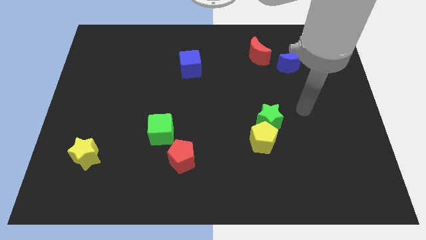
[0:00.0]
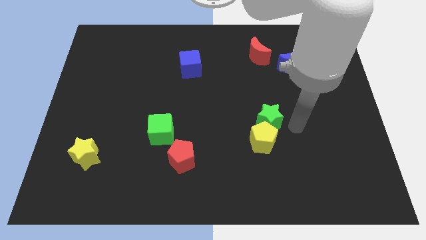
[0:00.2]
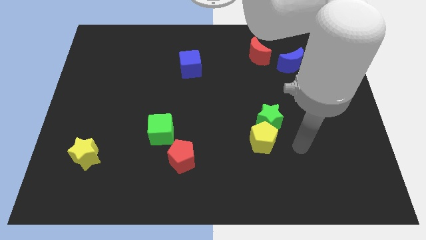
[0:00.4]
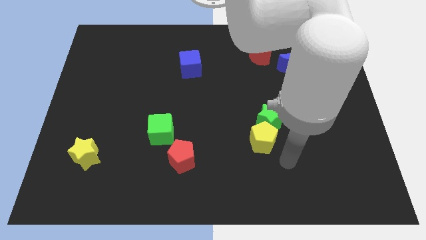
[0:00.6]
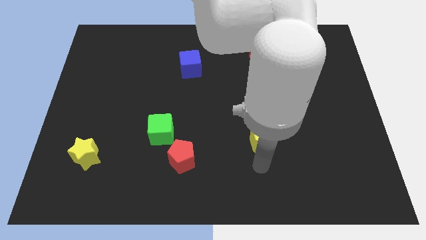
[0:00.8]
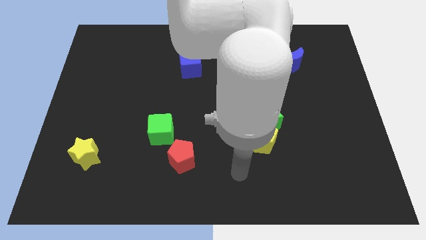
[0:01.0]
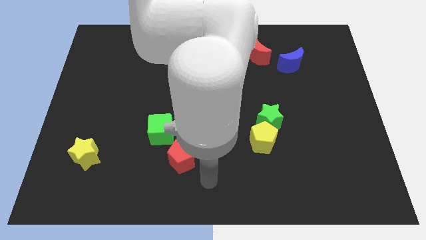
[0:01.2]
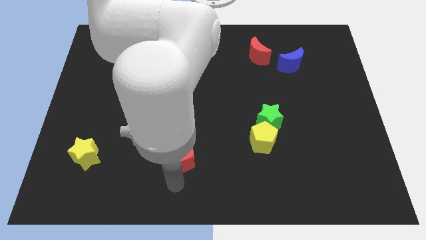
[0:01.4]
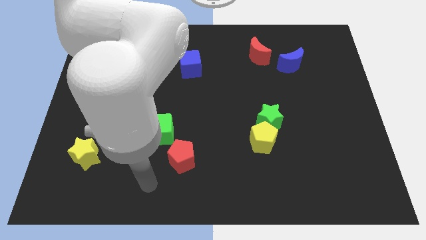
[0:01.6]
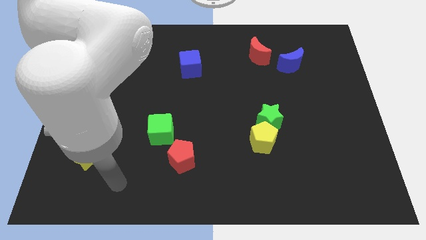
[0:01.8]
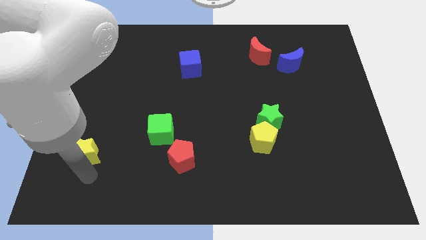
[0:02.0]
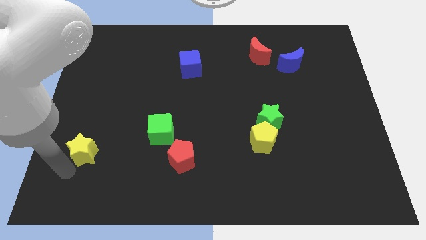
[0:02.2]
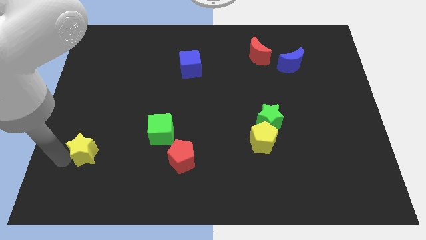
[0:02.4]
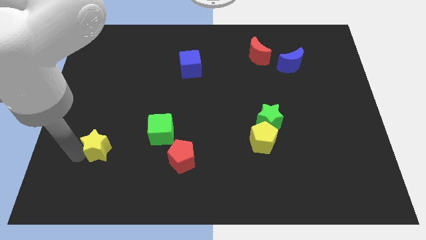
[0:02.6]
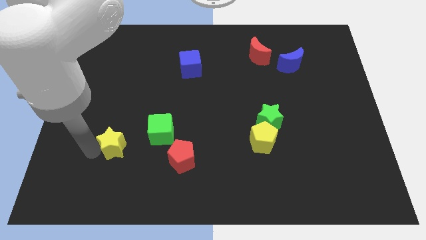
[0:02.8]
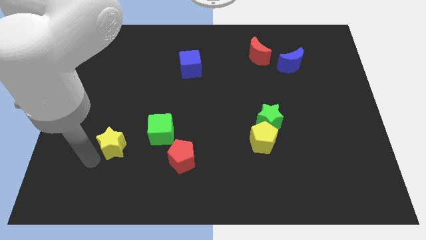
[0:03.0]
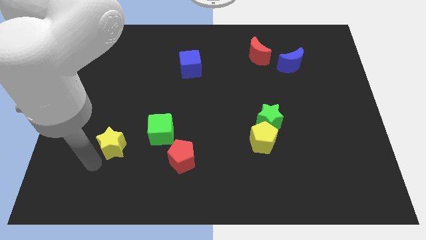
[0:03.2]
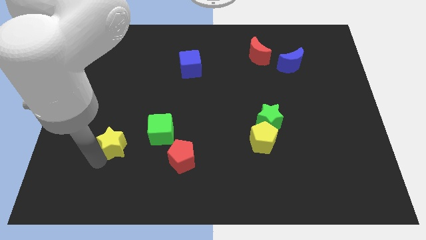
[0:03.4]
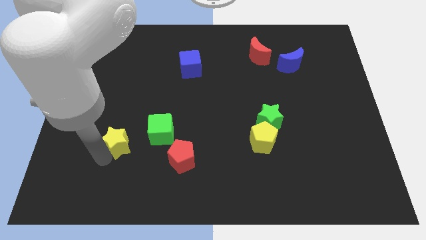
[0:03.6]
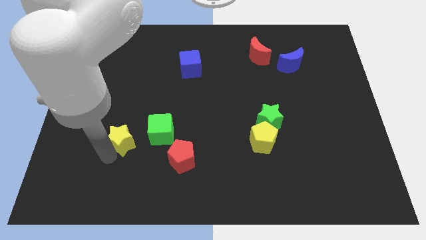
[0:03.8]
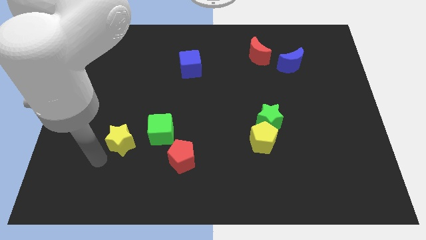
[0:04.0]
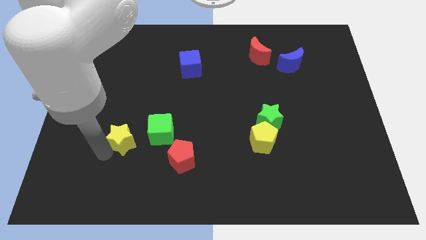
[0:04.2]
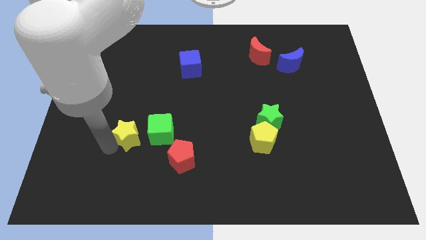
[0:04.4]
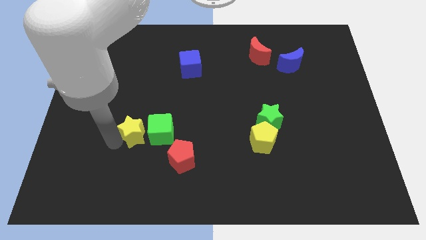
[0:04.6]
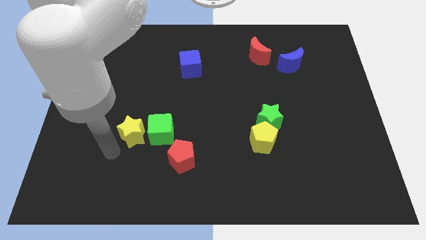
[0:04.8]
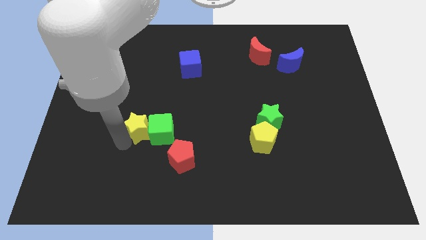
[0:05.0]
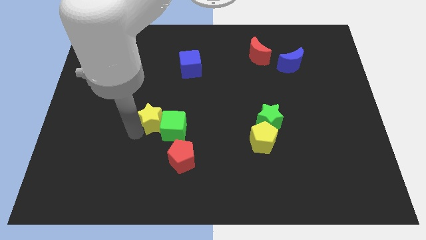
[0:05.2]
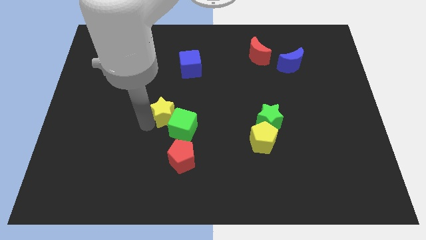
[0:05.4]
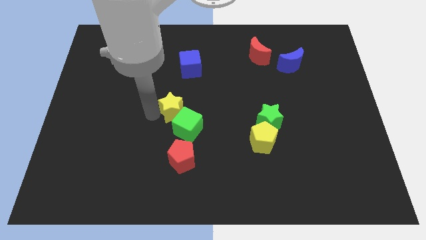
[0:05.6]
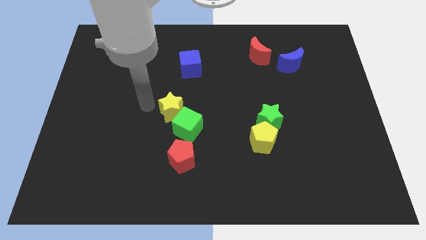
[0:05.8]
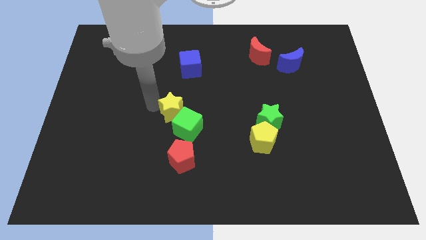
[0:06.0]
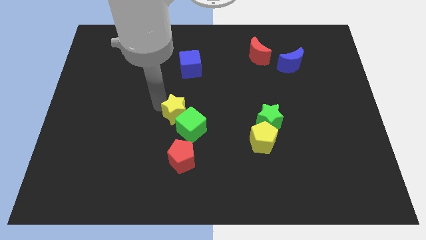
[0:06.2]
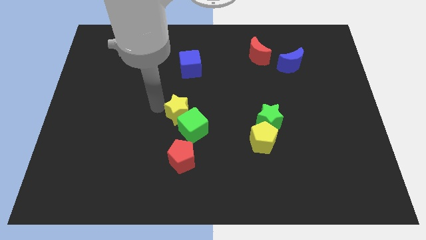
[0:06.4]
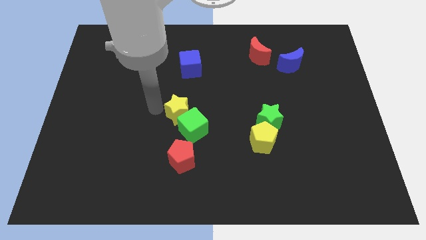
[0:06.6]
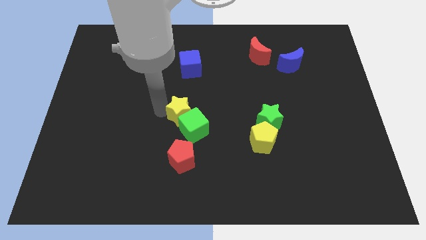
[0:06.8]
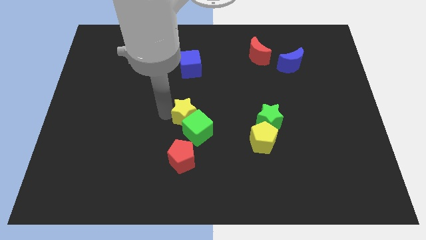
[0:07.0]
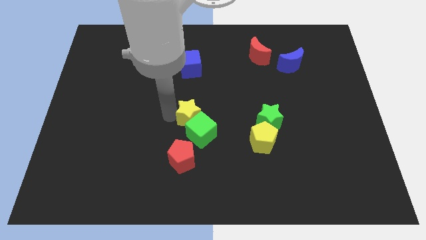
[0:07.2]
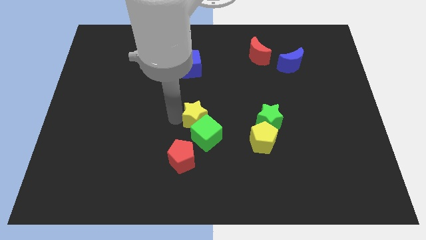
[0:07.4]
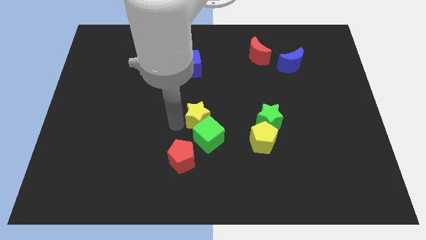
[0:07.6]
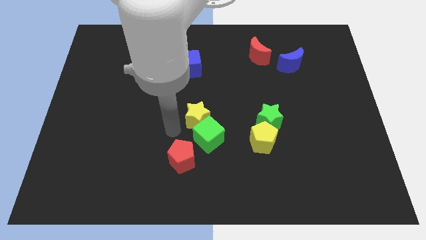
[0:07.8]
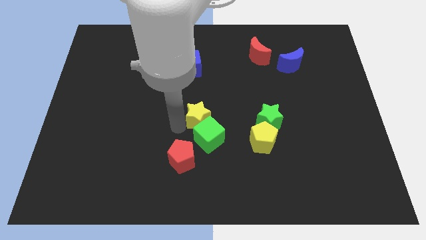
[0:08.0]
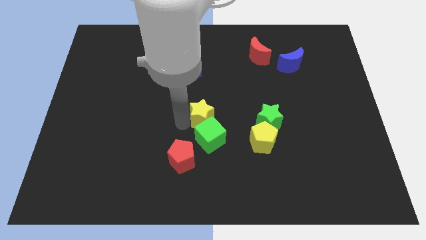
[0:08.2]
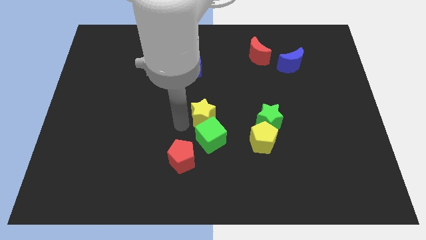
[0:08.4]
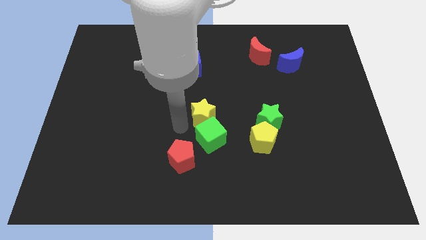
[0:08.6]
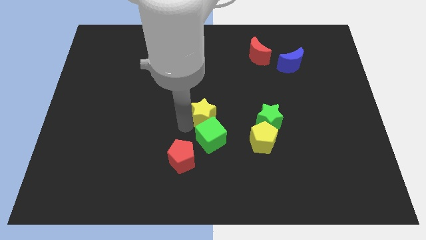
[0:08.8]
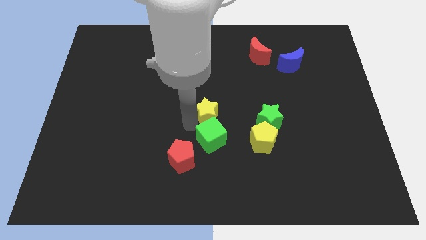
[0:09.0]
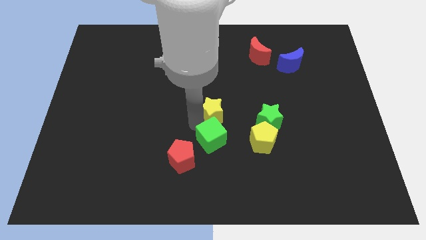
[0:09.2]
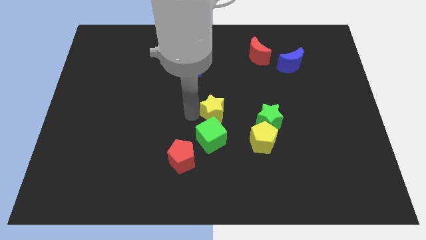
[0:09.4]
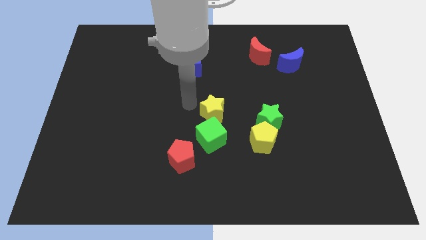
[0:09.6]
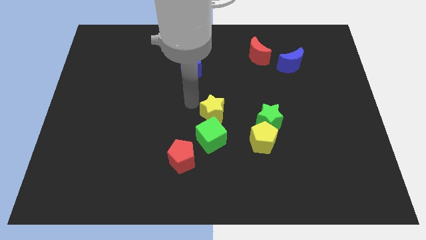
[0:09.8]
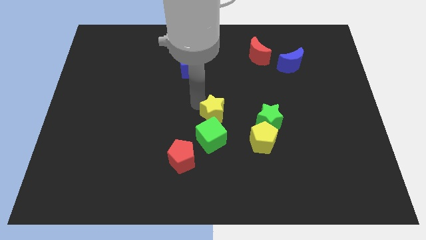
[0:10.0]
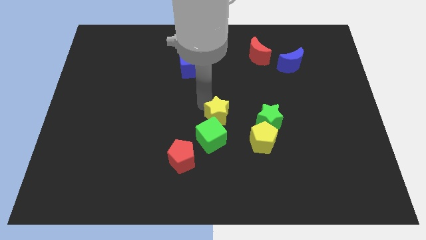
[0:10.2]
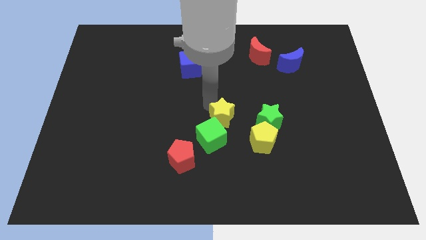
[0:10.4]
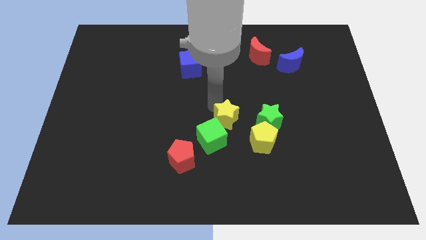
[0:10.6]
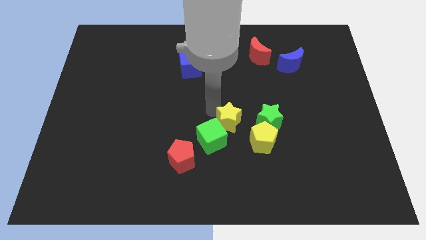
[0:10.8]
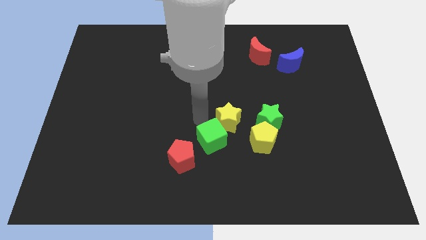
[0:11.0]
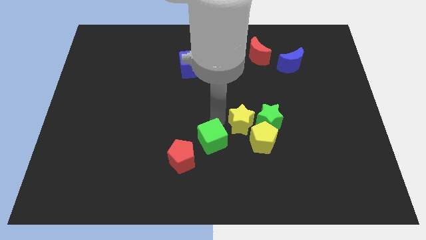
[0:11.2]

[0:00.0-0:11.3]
push the yellow star next to the green star

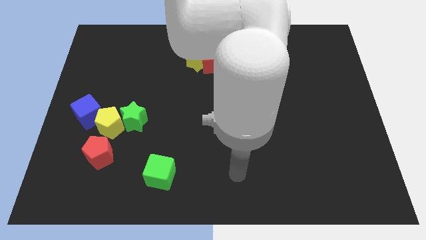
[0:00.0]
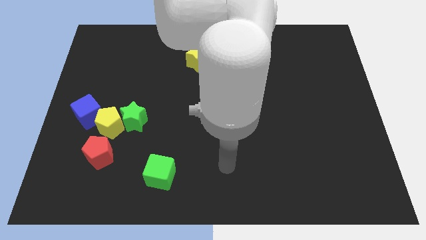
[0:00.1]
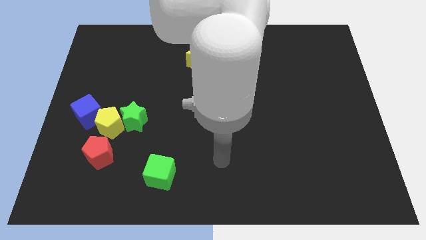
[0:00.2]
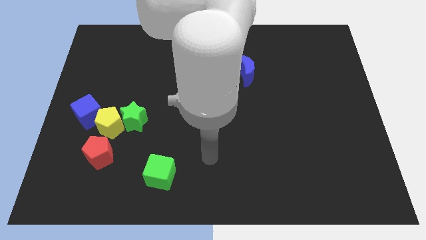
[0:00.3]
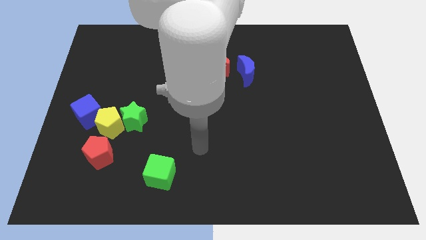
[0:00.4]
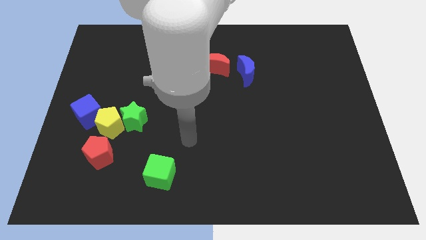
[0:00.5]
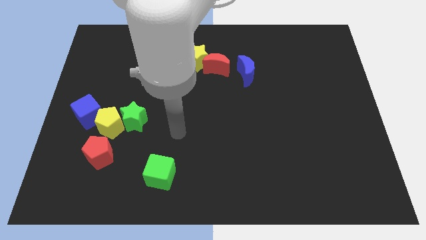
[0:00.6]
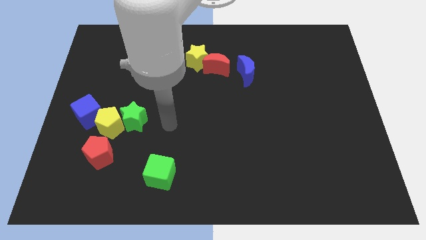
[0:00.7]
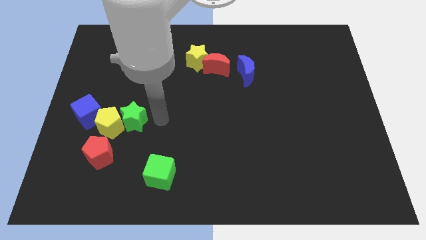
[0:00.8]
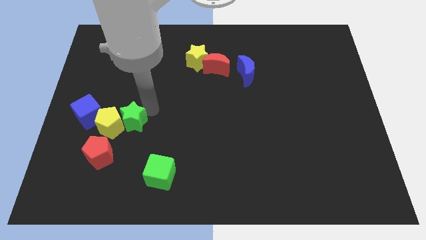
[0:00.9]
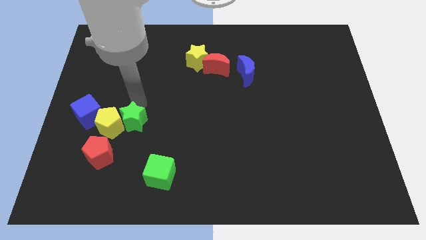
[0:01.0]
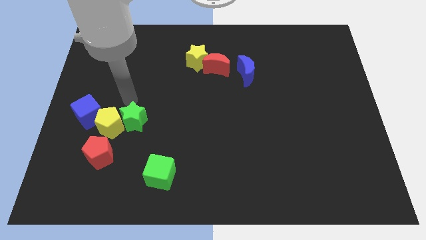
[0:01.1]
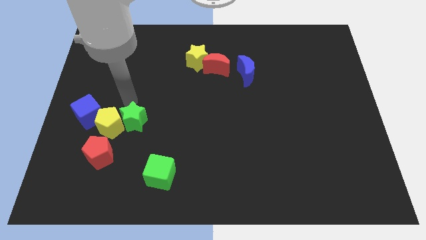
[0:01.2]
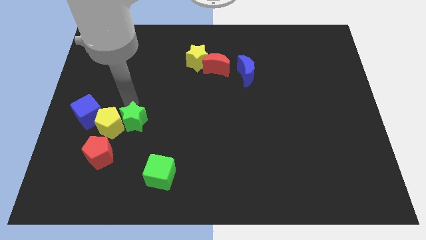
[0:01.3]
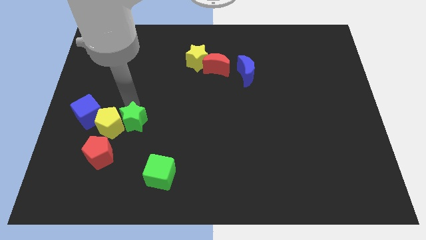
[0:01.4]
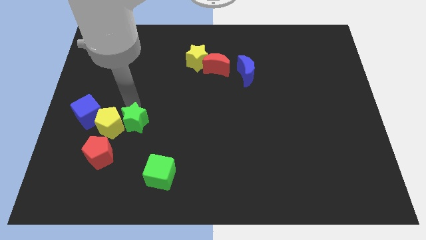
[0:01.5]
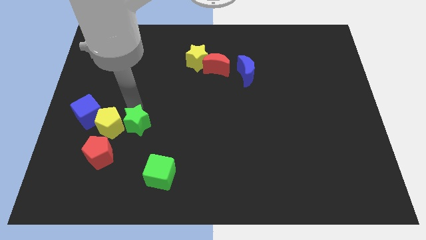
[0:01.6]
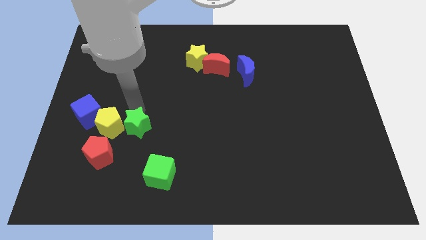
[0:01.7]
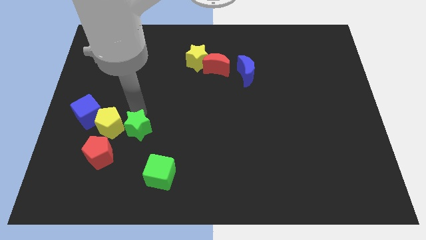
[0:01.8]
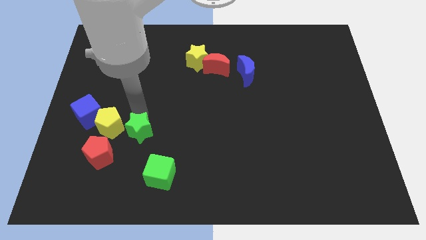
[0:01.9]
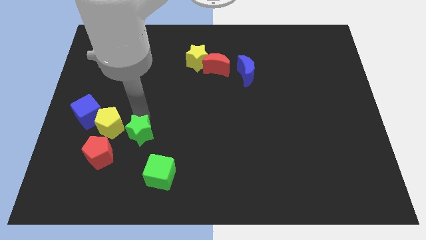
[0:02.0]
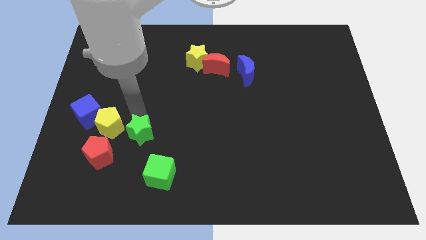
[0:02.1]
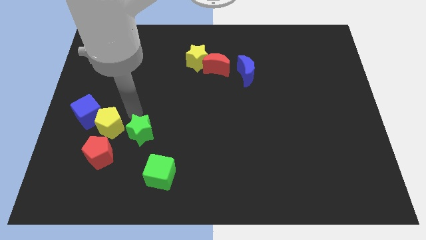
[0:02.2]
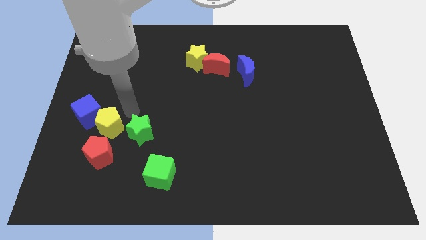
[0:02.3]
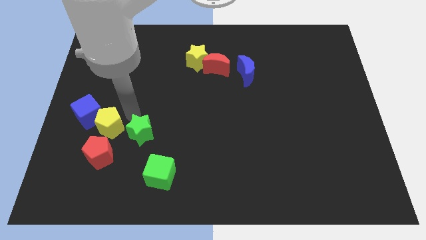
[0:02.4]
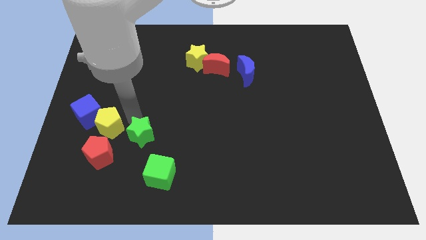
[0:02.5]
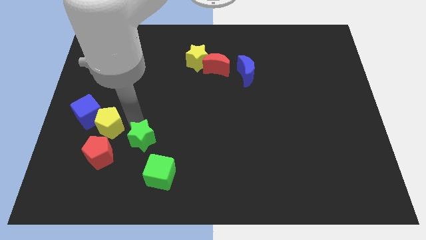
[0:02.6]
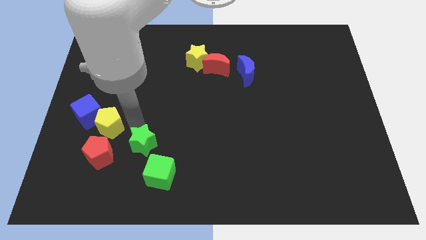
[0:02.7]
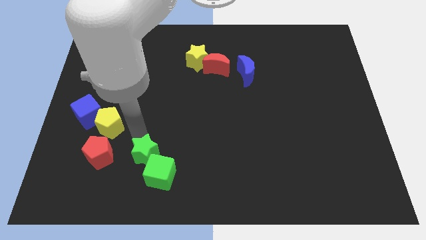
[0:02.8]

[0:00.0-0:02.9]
push the green star next to the green cube
